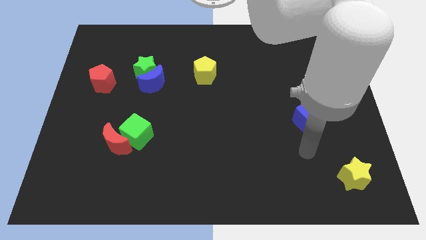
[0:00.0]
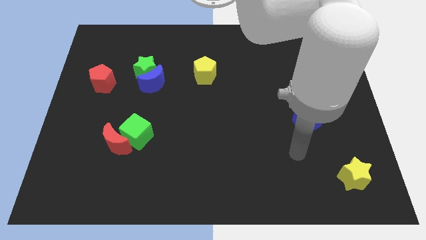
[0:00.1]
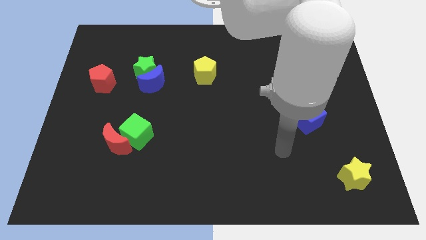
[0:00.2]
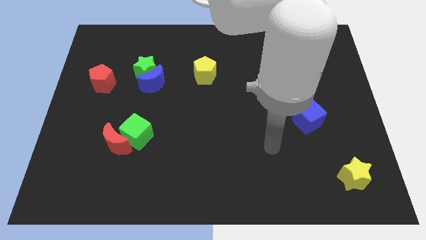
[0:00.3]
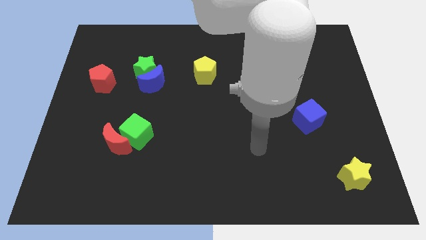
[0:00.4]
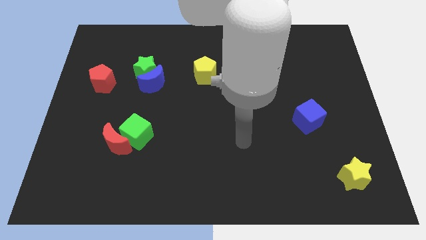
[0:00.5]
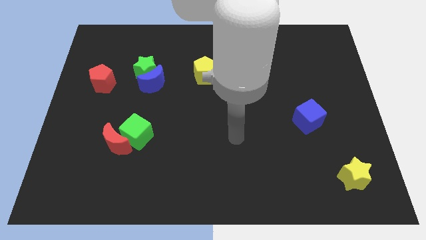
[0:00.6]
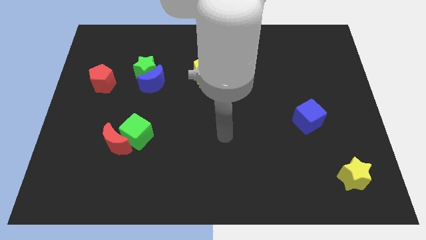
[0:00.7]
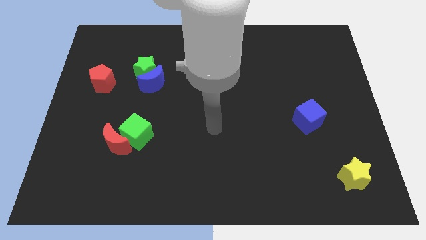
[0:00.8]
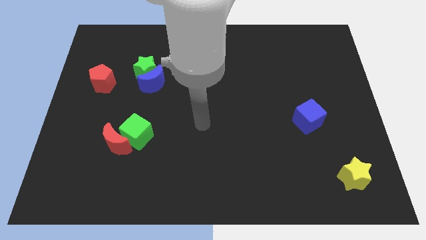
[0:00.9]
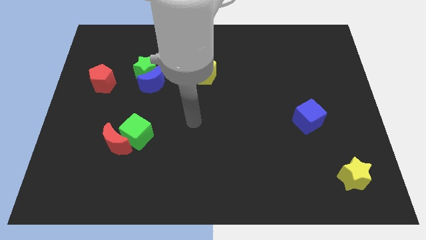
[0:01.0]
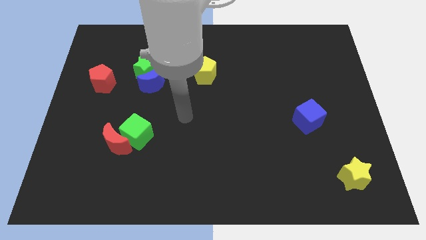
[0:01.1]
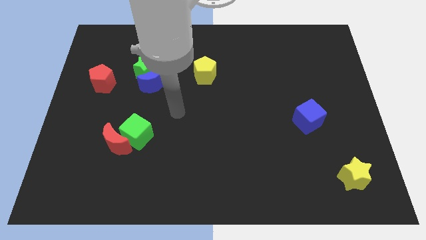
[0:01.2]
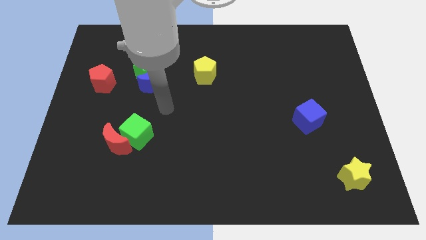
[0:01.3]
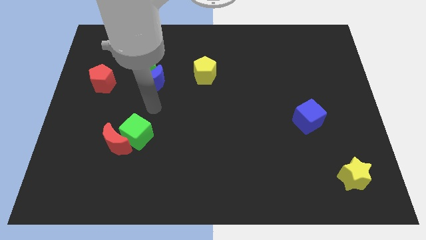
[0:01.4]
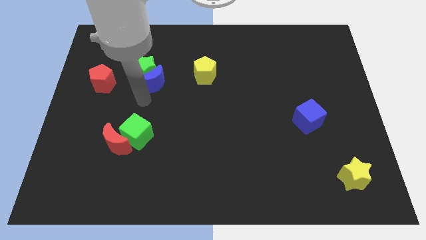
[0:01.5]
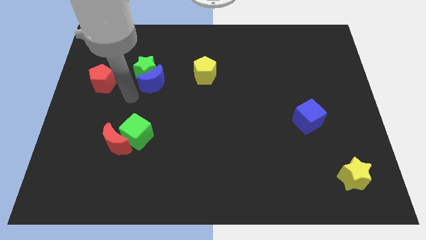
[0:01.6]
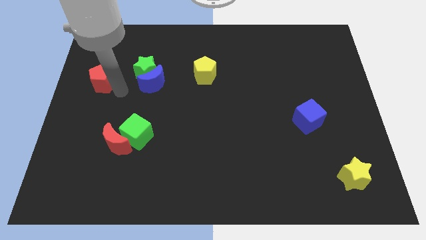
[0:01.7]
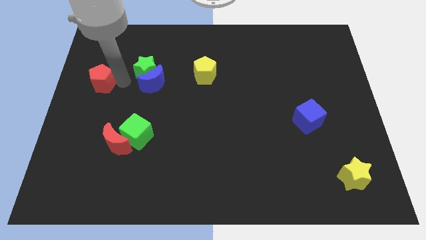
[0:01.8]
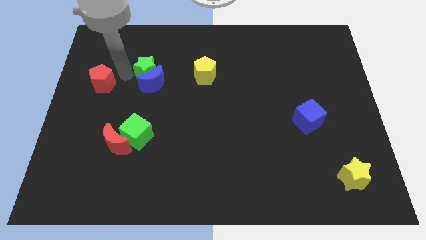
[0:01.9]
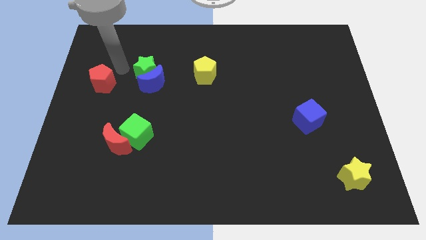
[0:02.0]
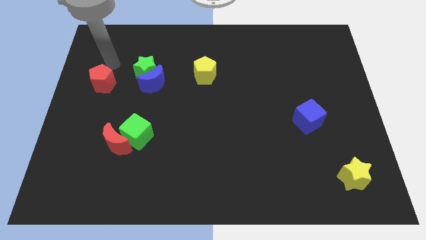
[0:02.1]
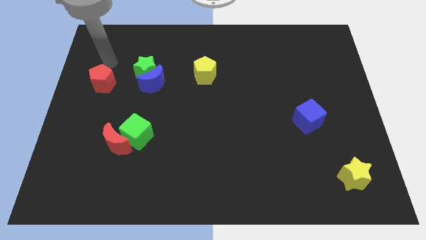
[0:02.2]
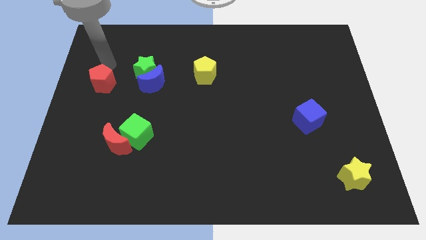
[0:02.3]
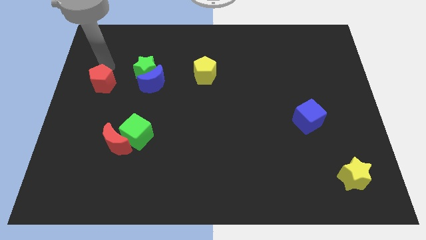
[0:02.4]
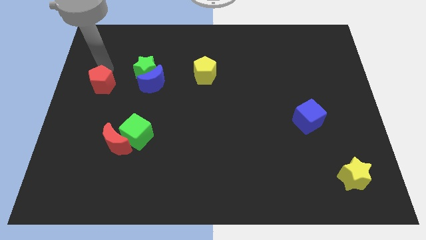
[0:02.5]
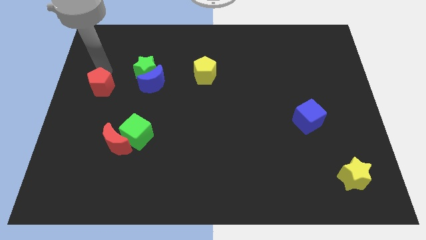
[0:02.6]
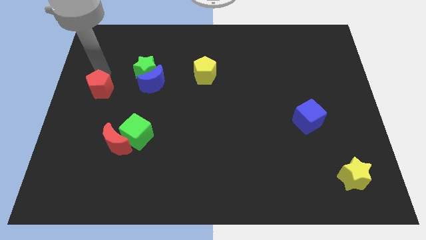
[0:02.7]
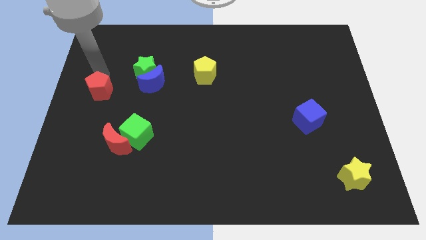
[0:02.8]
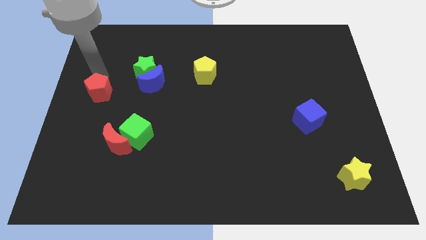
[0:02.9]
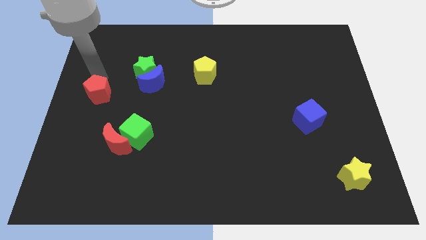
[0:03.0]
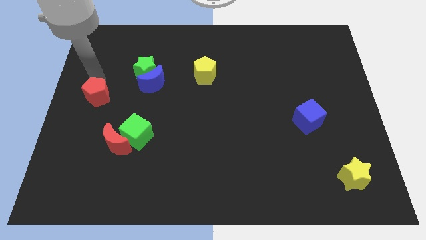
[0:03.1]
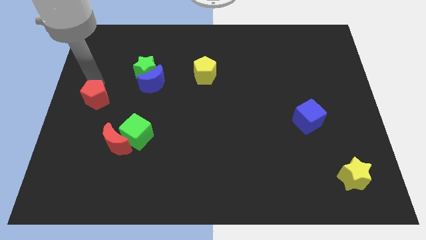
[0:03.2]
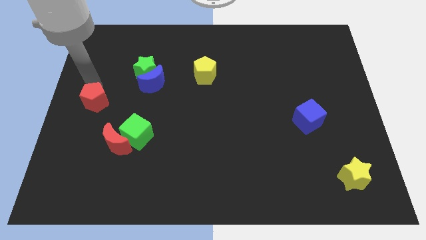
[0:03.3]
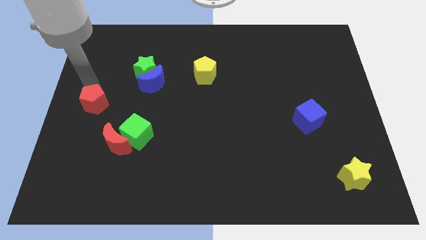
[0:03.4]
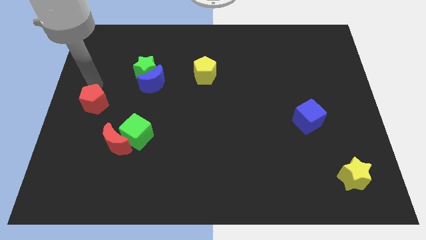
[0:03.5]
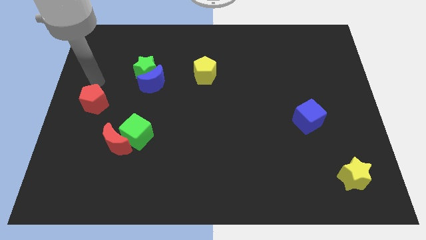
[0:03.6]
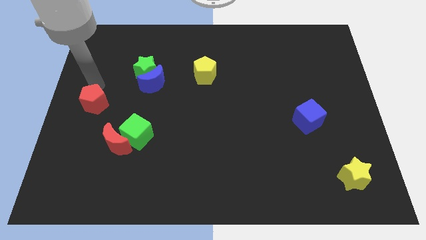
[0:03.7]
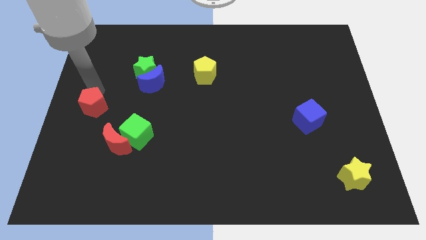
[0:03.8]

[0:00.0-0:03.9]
slightly push the red pentagon down

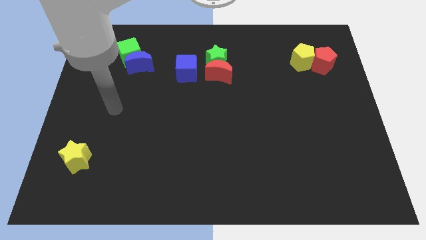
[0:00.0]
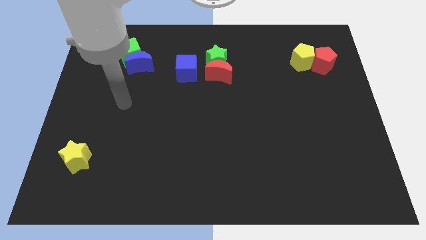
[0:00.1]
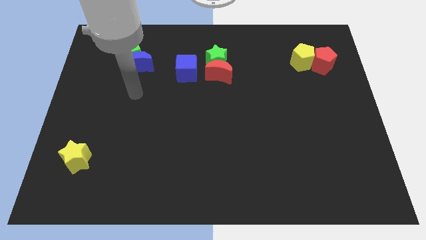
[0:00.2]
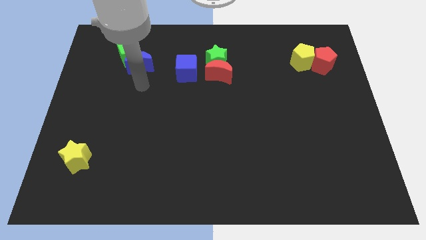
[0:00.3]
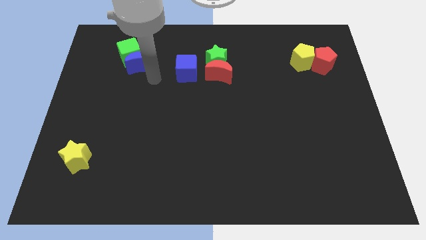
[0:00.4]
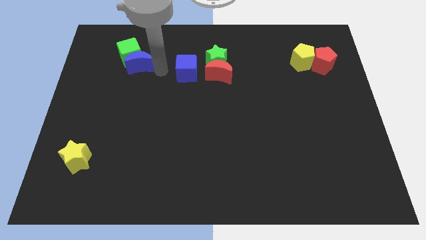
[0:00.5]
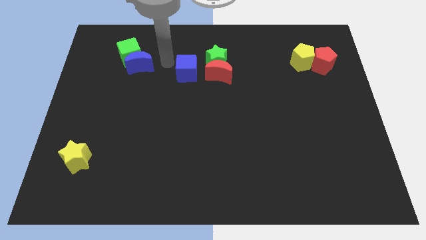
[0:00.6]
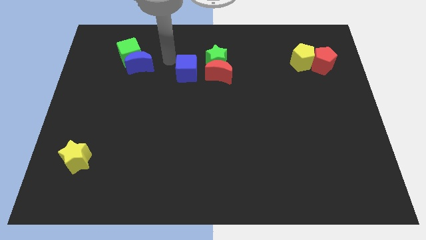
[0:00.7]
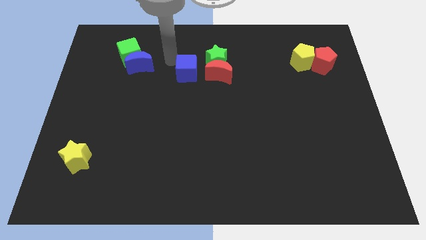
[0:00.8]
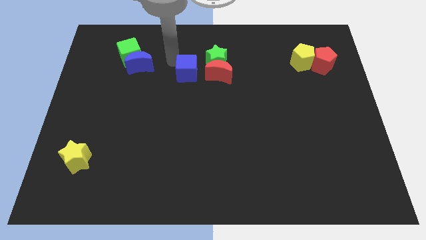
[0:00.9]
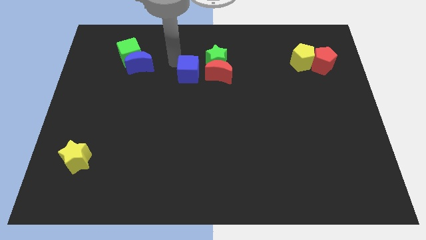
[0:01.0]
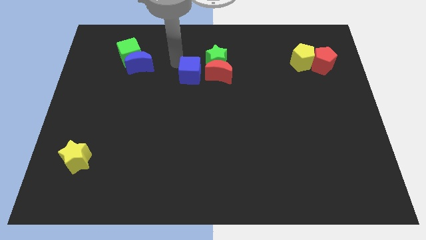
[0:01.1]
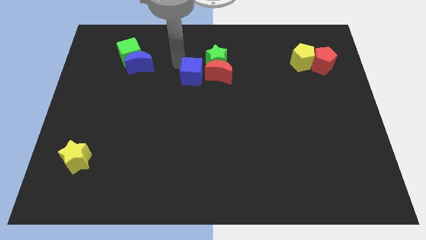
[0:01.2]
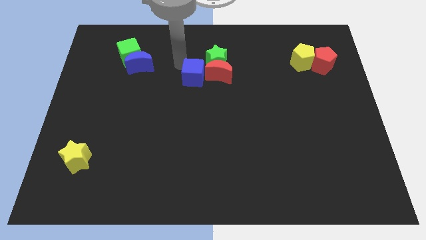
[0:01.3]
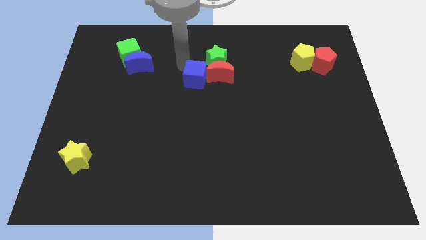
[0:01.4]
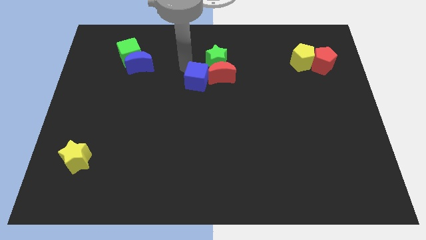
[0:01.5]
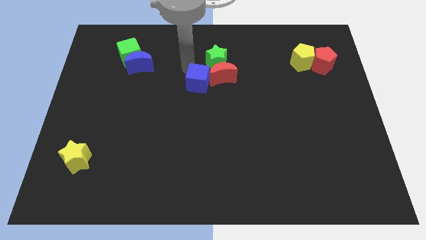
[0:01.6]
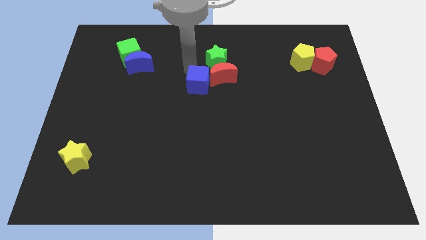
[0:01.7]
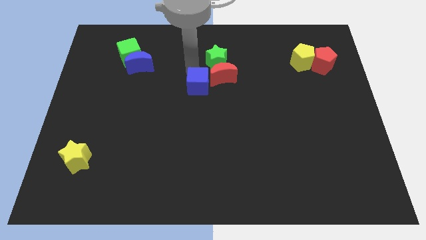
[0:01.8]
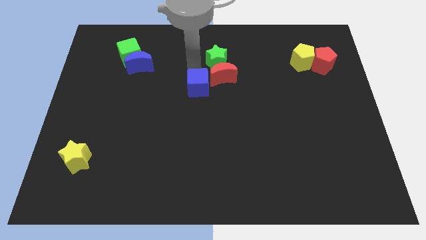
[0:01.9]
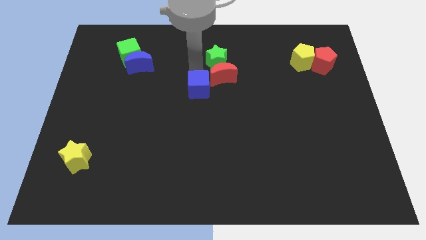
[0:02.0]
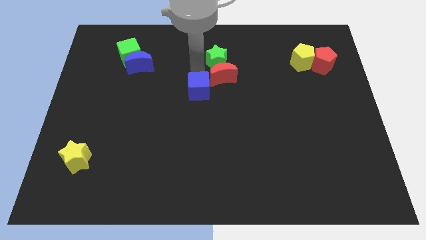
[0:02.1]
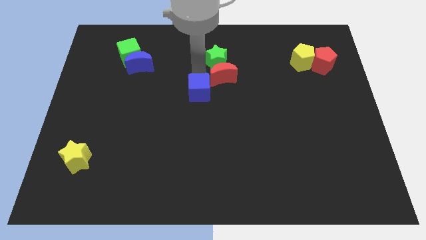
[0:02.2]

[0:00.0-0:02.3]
push the blue cube diagonally down and right somewhat

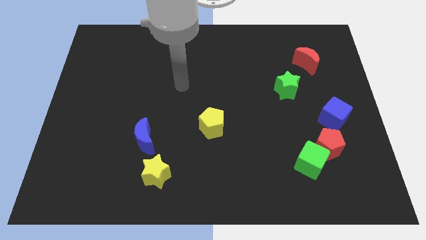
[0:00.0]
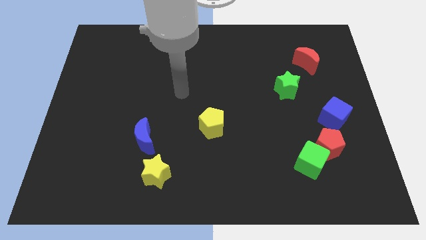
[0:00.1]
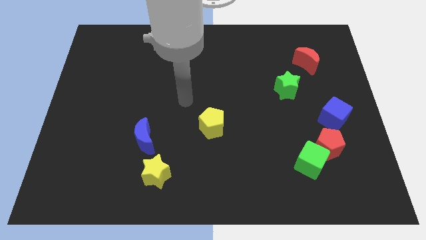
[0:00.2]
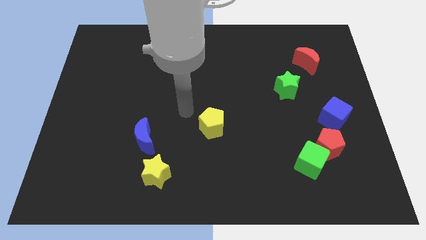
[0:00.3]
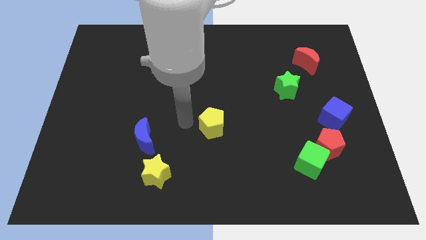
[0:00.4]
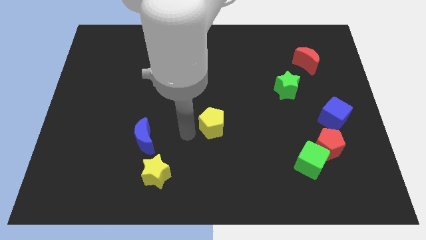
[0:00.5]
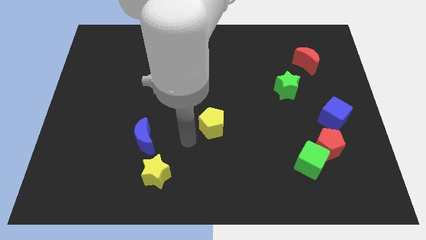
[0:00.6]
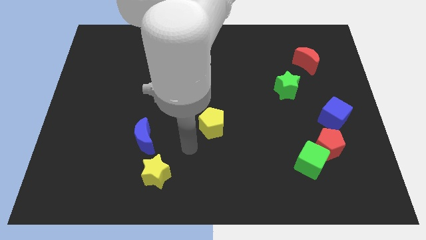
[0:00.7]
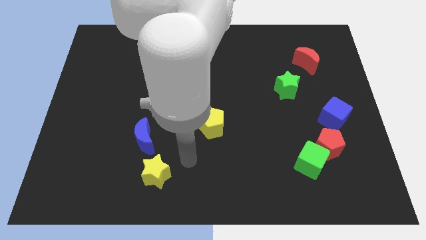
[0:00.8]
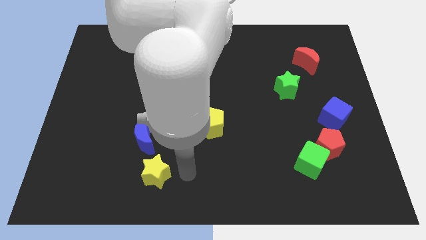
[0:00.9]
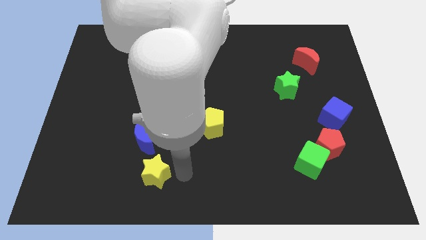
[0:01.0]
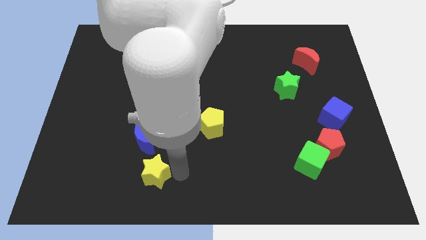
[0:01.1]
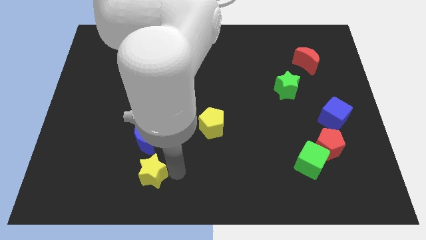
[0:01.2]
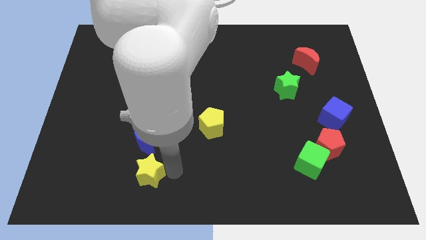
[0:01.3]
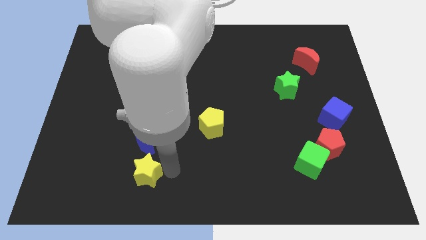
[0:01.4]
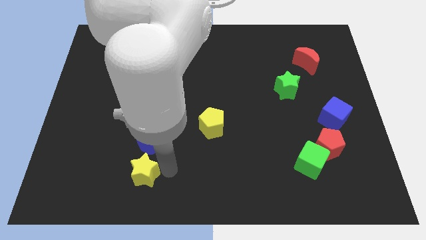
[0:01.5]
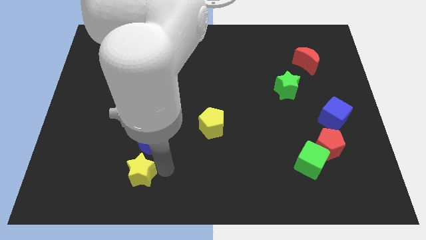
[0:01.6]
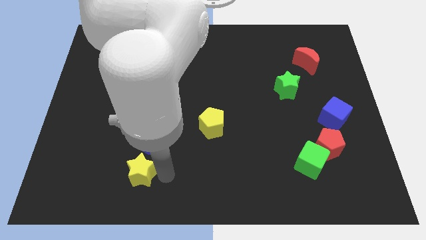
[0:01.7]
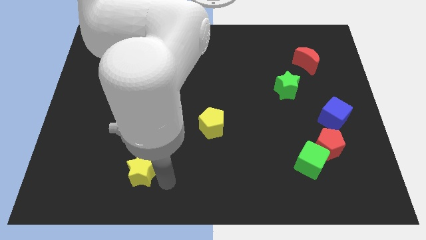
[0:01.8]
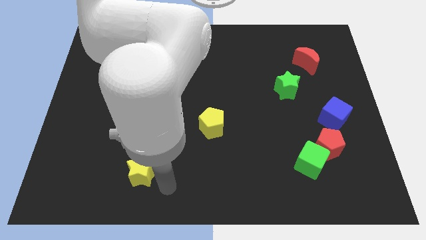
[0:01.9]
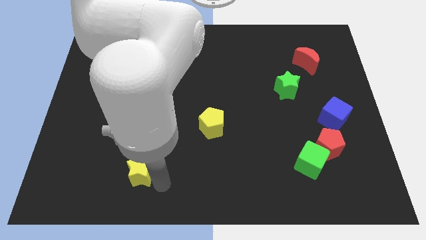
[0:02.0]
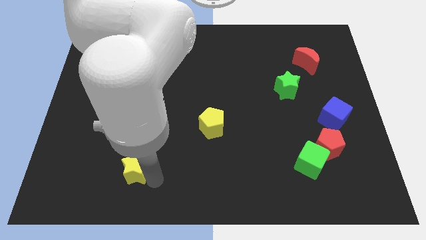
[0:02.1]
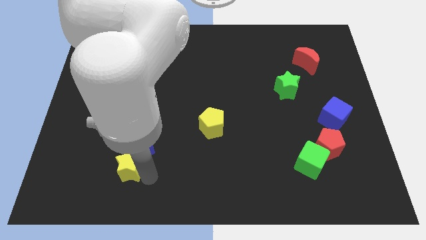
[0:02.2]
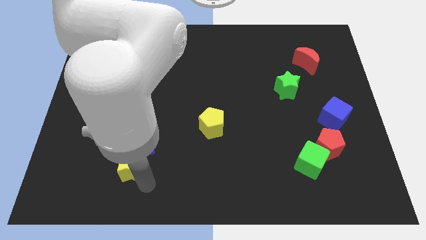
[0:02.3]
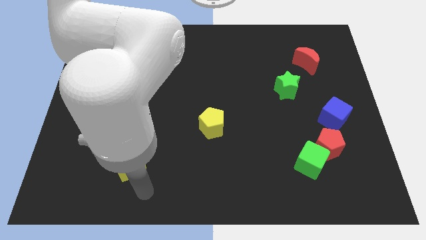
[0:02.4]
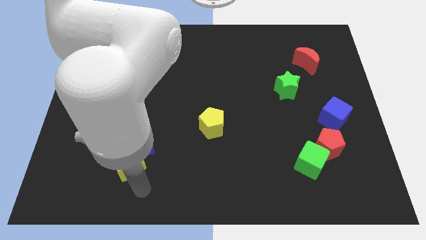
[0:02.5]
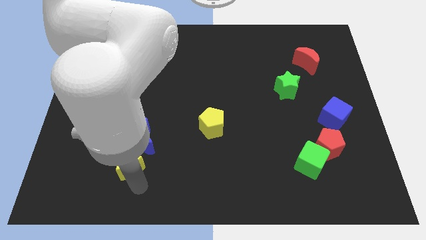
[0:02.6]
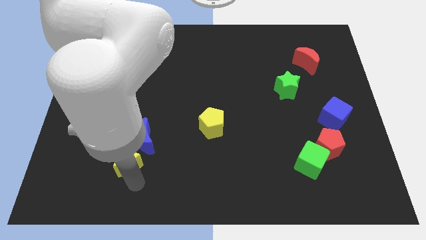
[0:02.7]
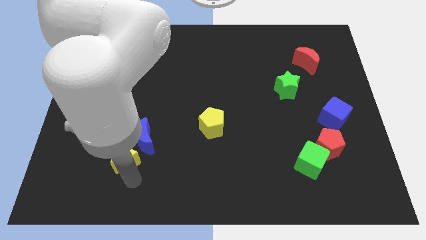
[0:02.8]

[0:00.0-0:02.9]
slightly move the yellow star up and to the left
